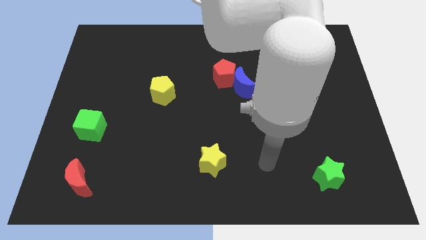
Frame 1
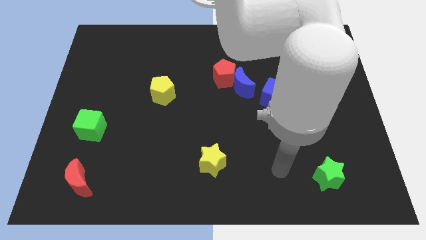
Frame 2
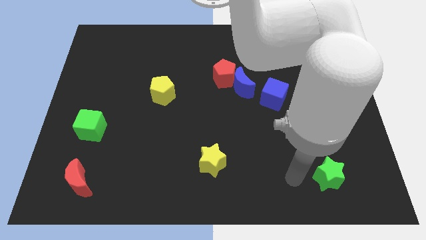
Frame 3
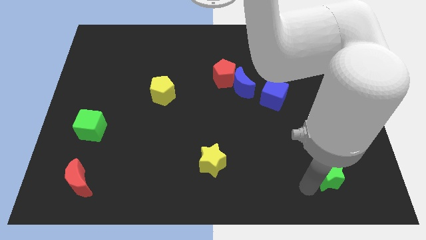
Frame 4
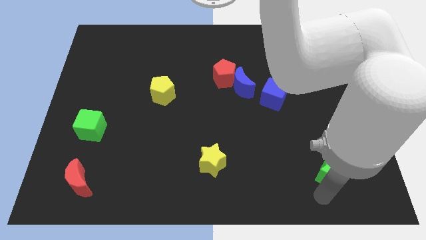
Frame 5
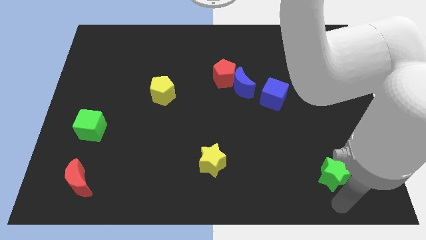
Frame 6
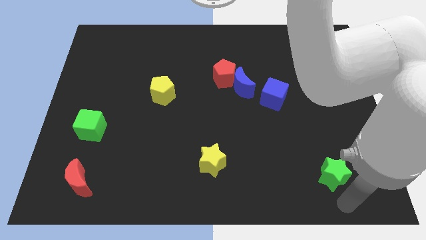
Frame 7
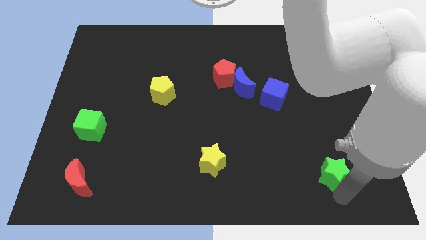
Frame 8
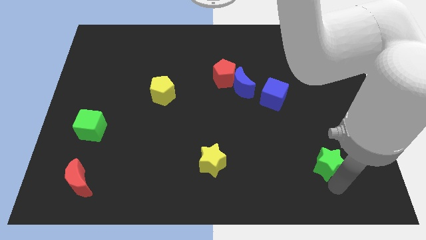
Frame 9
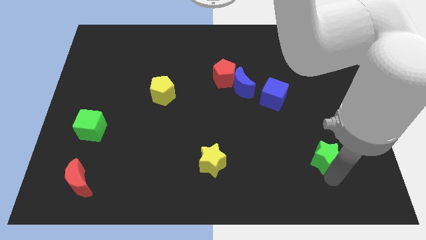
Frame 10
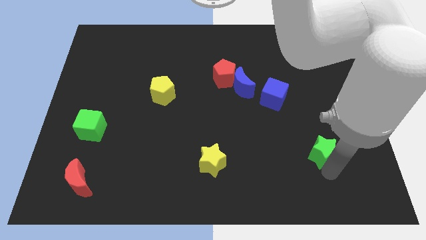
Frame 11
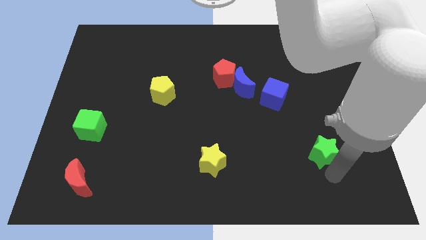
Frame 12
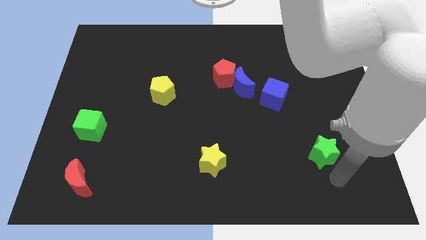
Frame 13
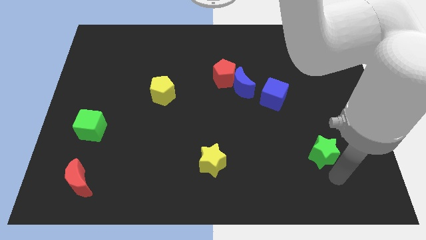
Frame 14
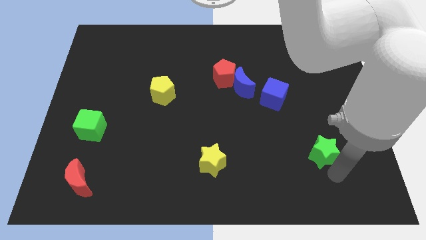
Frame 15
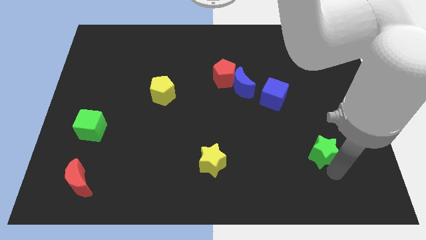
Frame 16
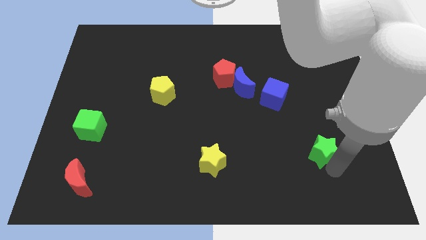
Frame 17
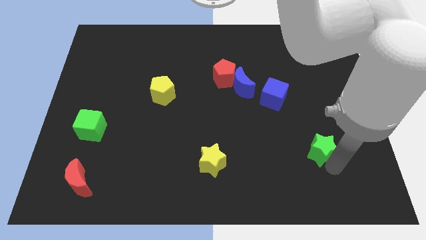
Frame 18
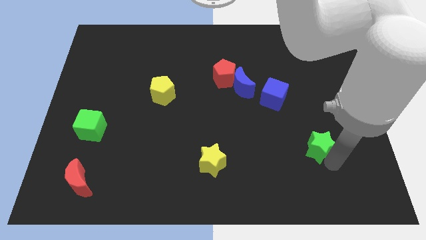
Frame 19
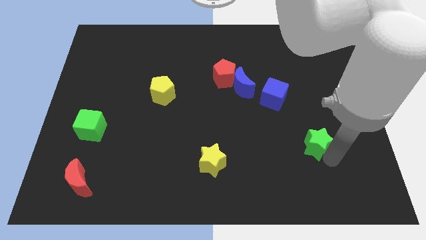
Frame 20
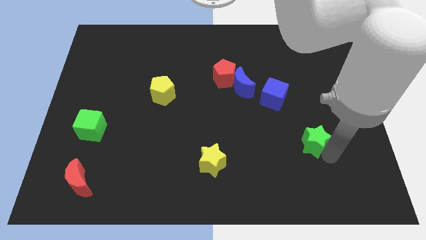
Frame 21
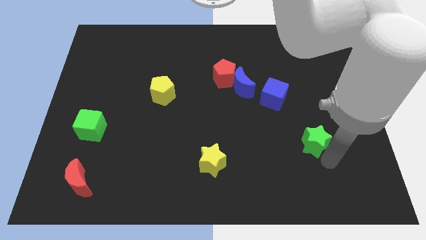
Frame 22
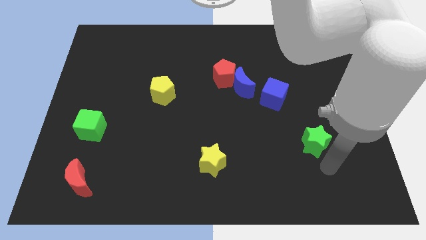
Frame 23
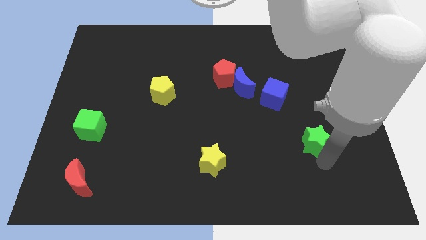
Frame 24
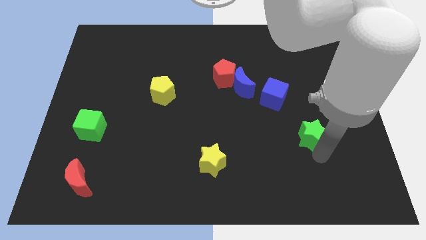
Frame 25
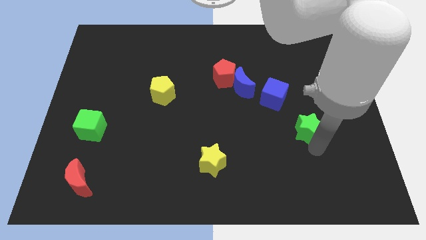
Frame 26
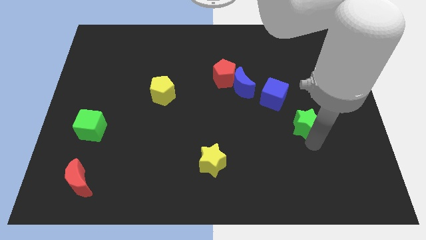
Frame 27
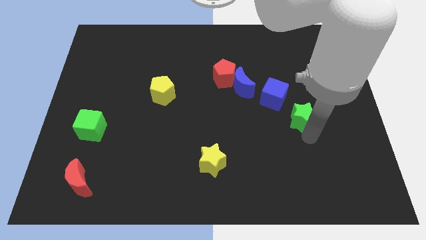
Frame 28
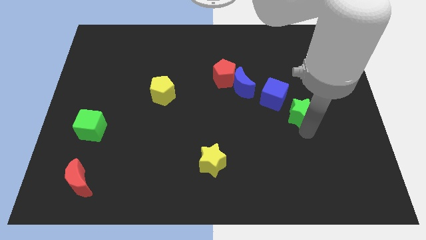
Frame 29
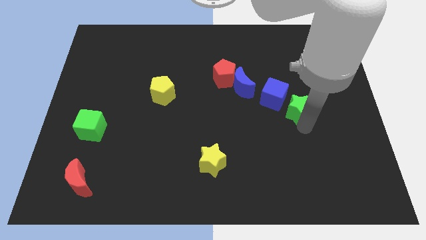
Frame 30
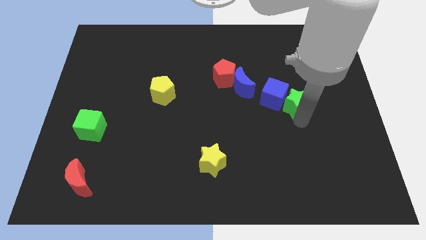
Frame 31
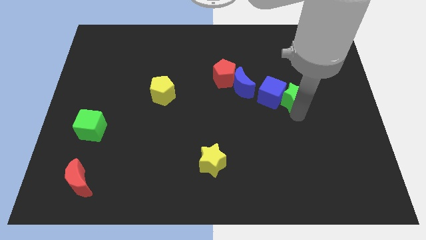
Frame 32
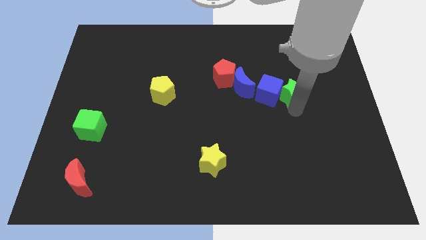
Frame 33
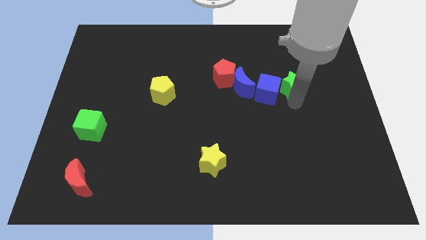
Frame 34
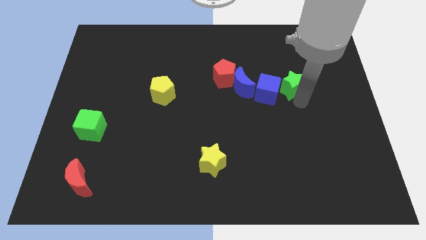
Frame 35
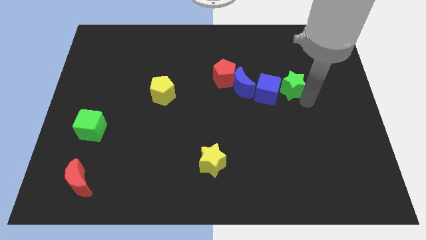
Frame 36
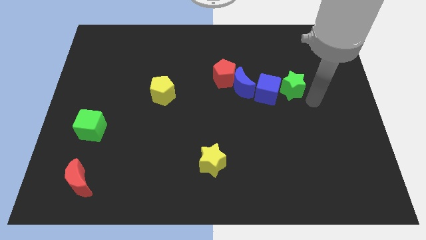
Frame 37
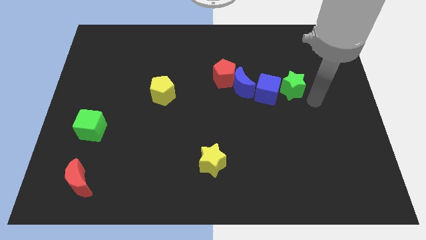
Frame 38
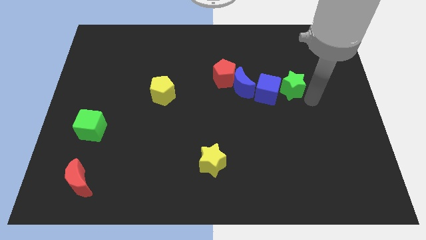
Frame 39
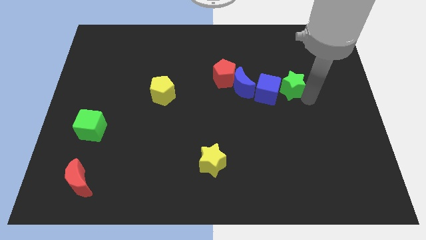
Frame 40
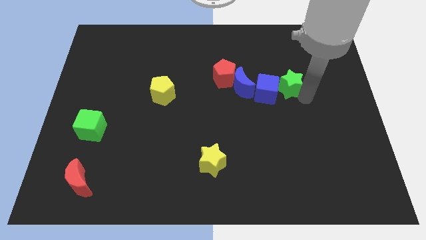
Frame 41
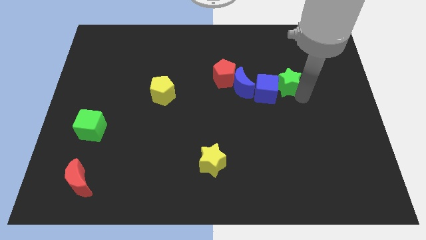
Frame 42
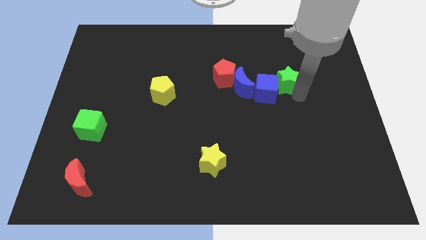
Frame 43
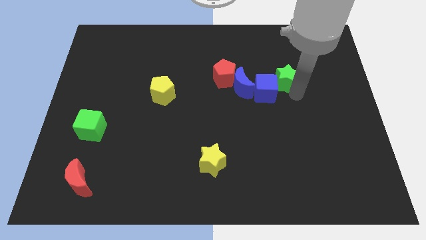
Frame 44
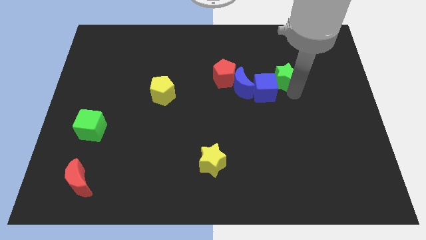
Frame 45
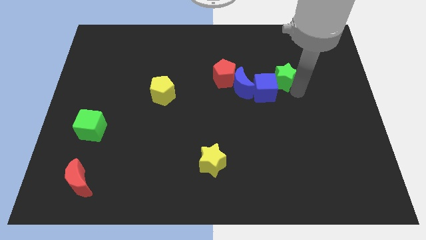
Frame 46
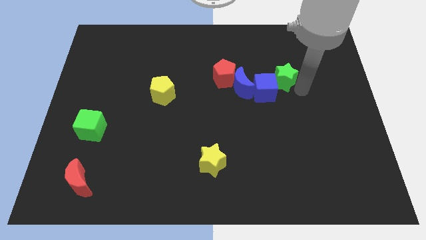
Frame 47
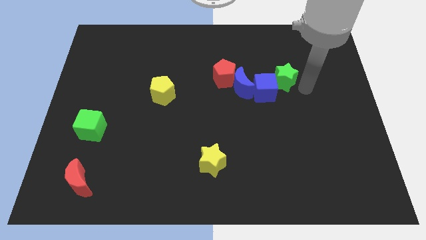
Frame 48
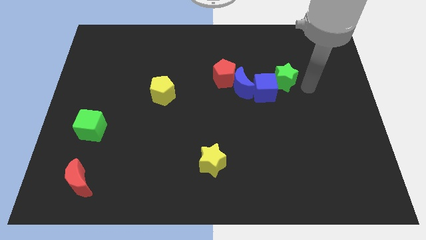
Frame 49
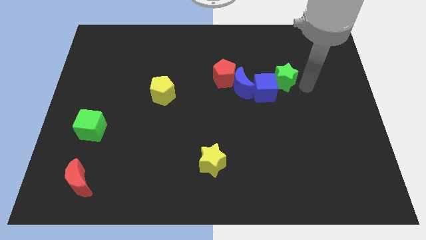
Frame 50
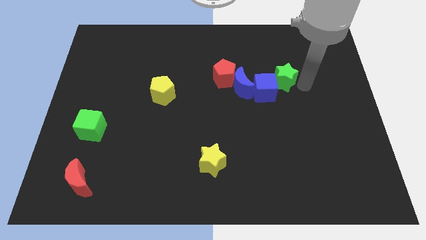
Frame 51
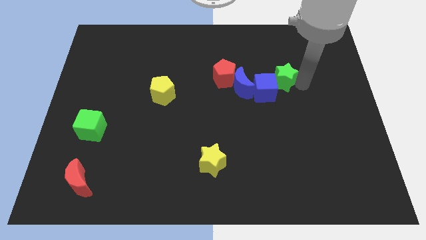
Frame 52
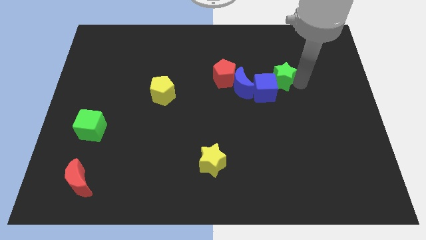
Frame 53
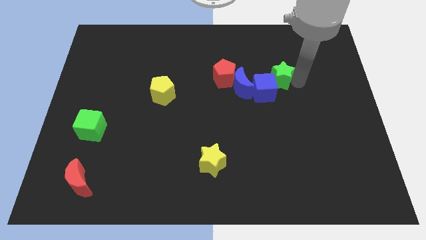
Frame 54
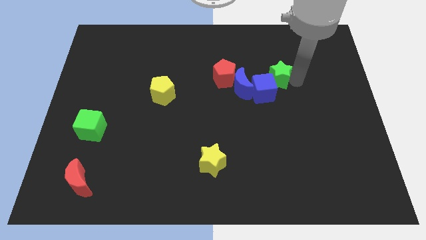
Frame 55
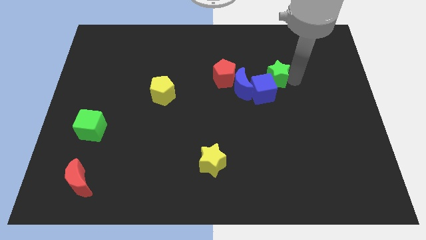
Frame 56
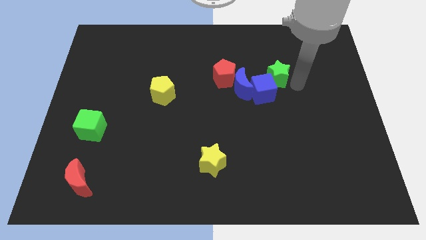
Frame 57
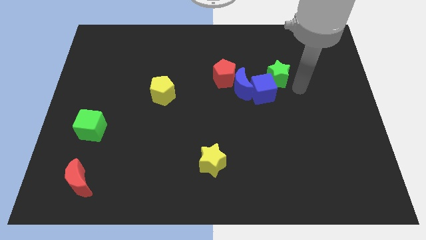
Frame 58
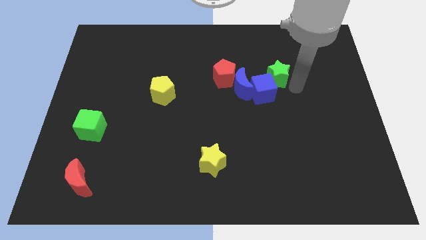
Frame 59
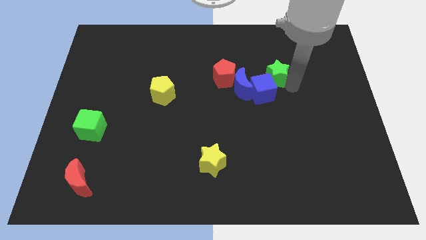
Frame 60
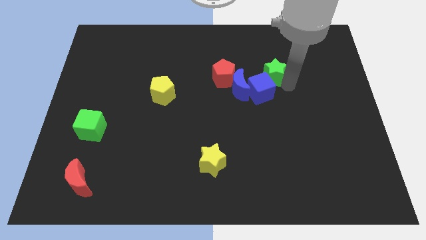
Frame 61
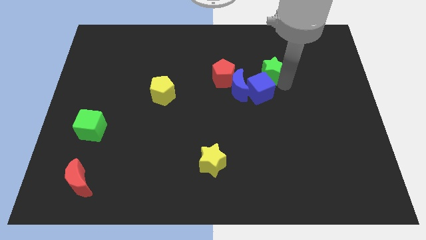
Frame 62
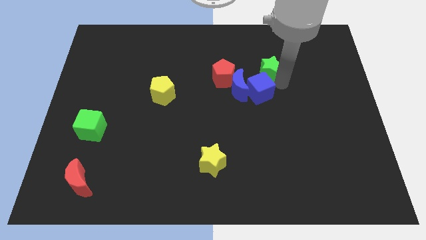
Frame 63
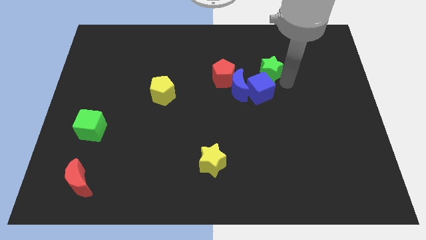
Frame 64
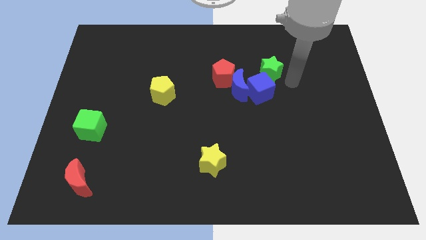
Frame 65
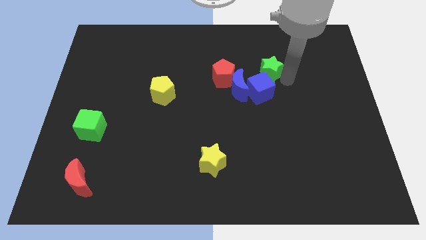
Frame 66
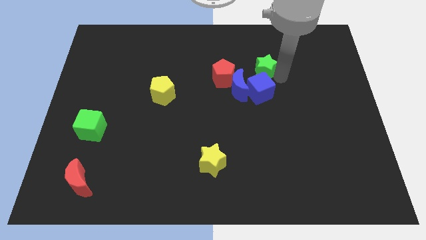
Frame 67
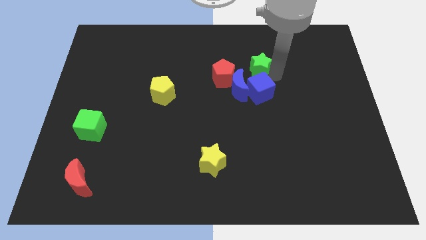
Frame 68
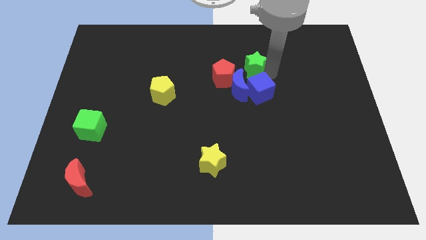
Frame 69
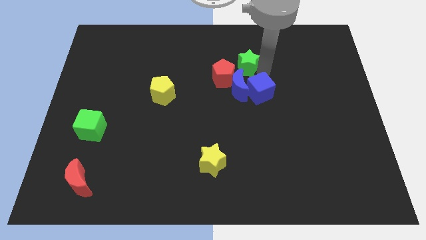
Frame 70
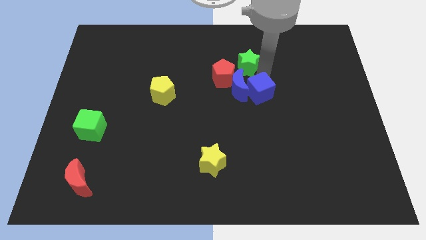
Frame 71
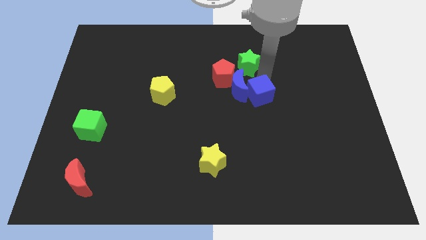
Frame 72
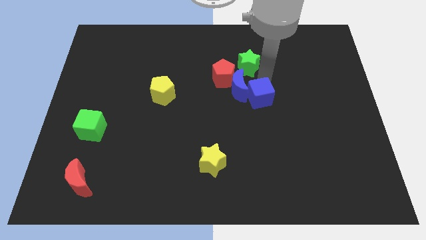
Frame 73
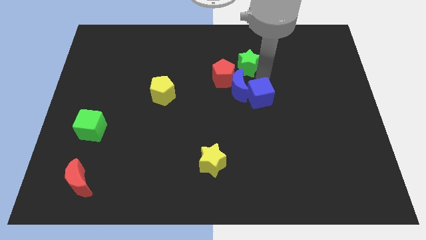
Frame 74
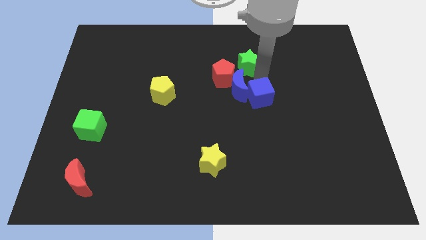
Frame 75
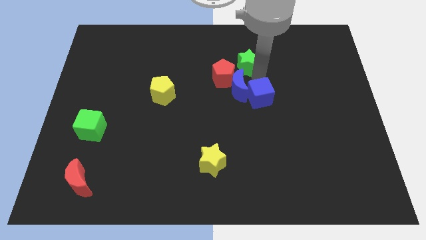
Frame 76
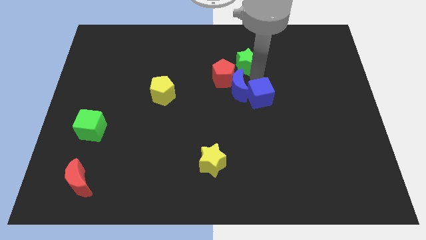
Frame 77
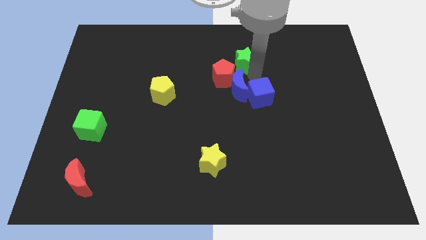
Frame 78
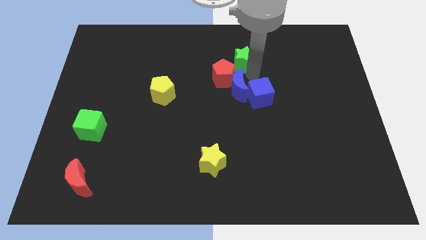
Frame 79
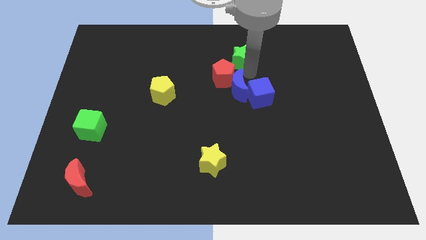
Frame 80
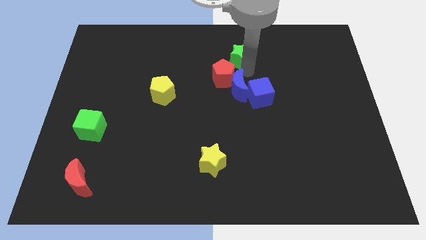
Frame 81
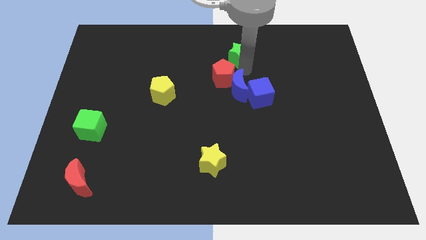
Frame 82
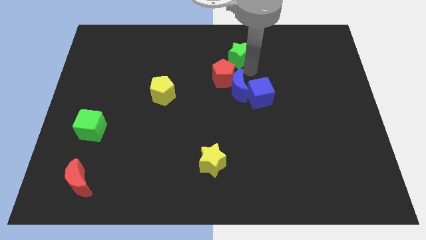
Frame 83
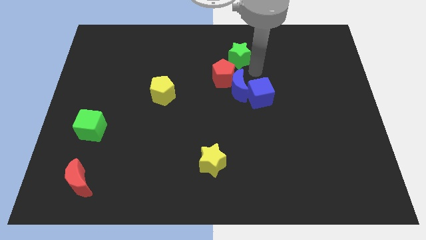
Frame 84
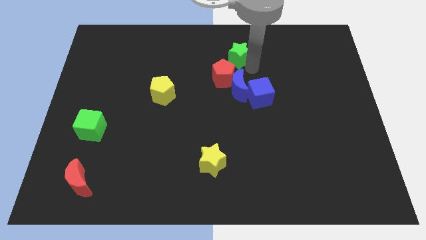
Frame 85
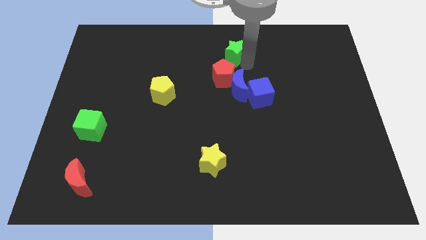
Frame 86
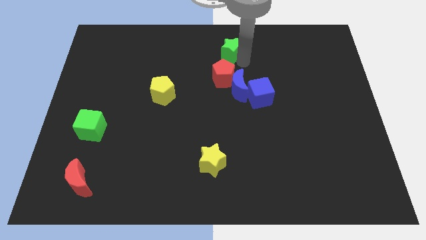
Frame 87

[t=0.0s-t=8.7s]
move the green star to the top side
